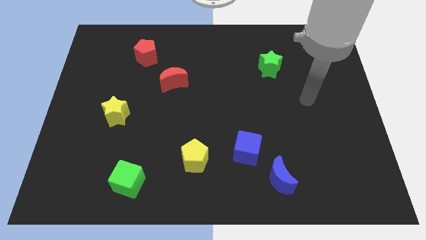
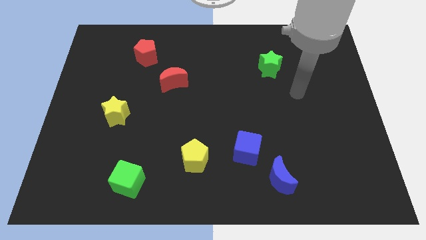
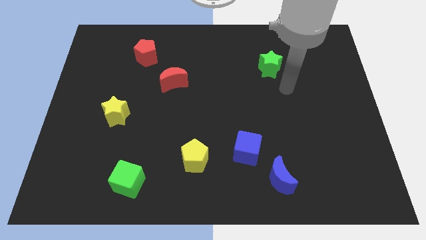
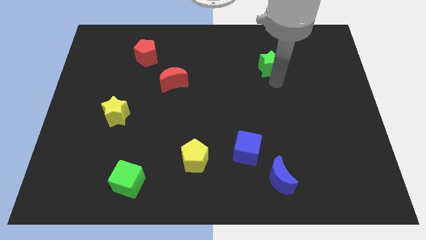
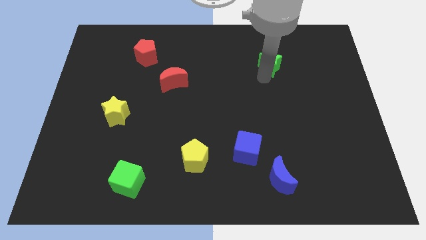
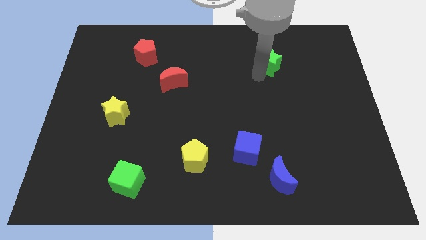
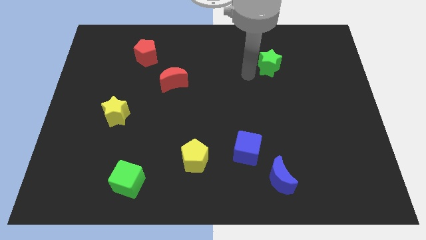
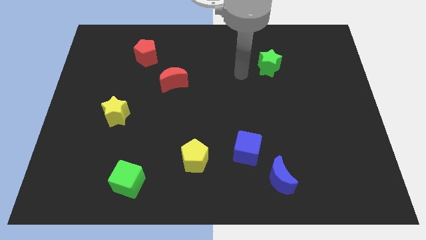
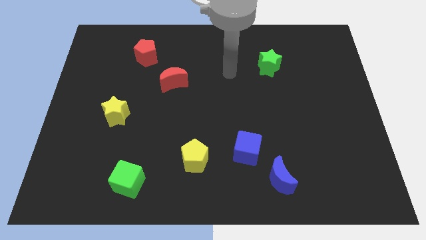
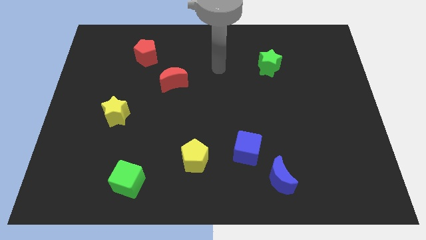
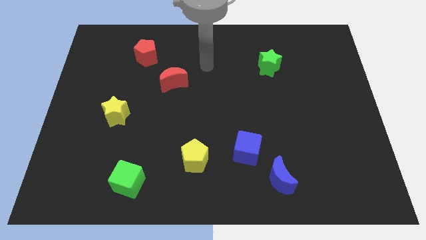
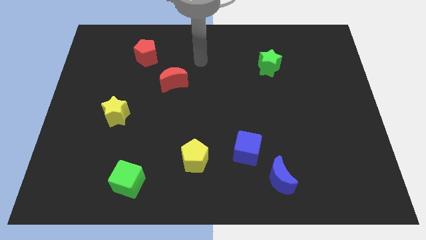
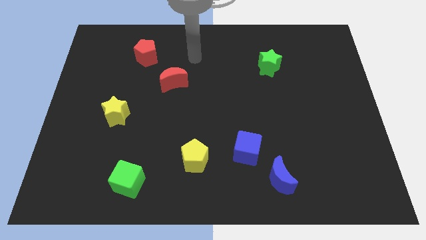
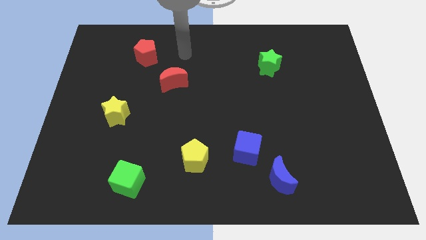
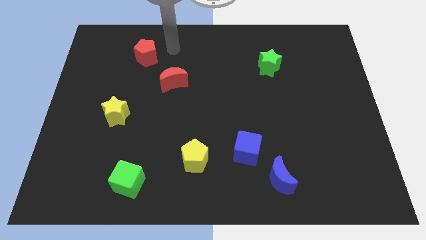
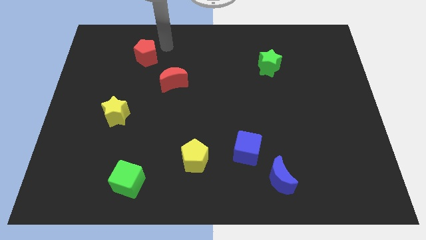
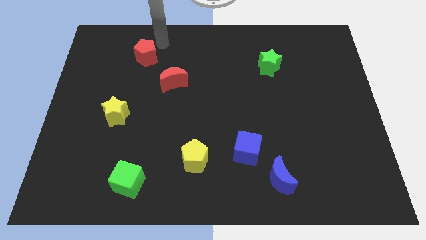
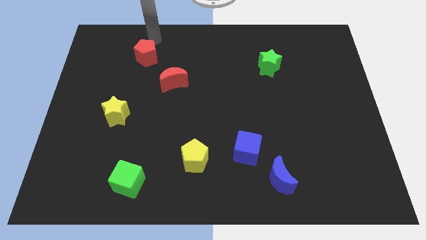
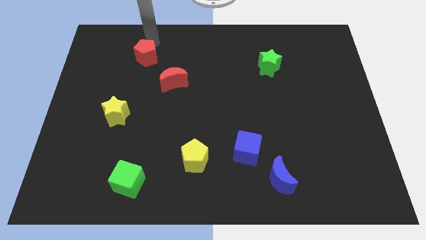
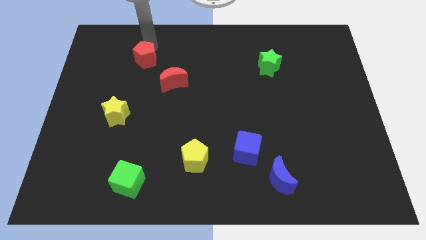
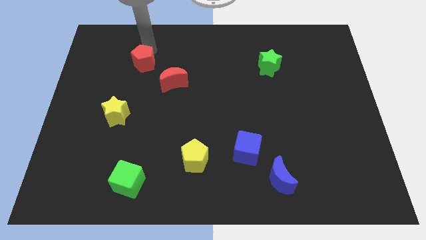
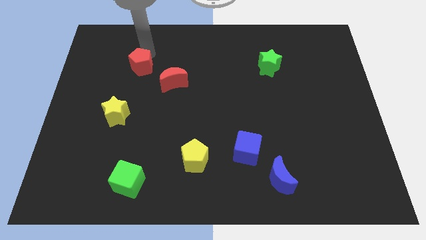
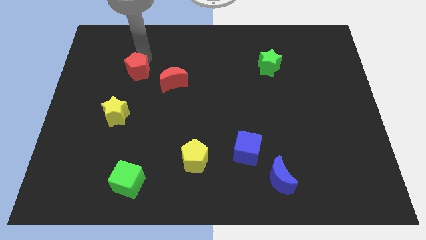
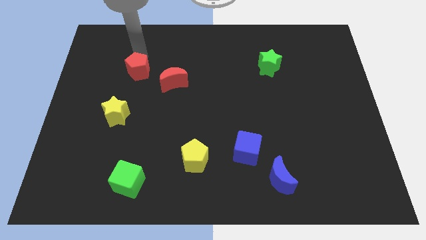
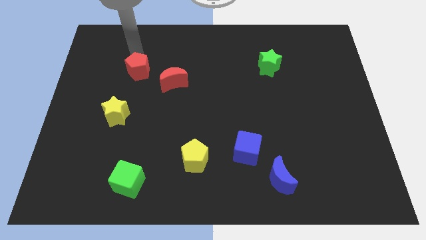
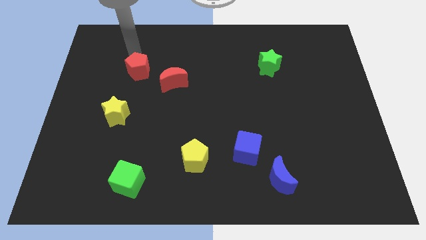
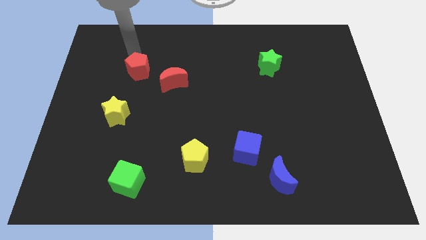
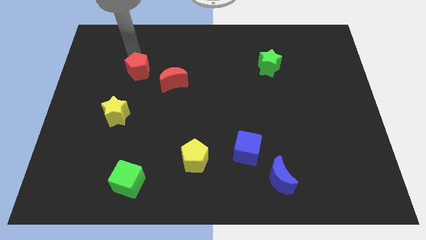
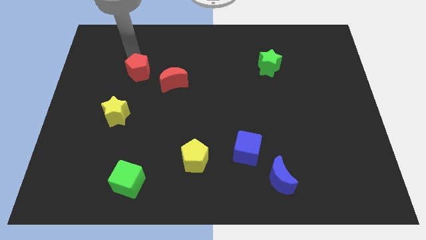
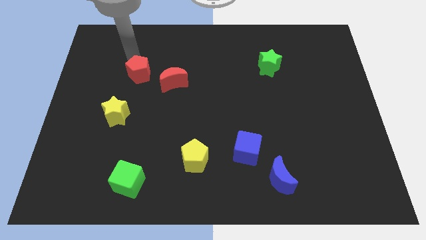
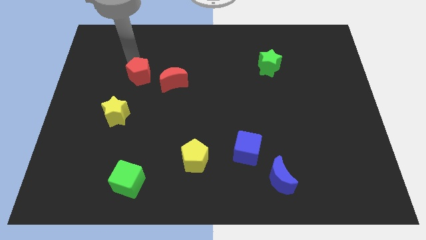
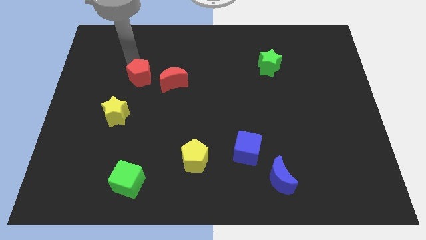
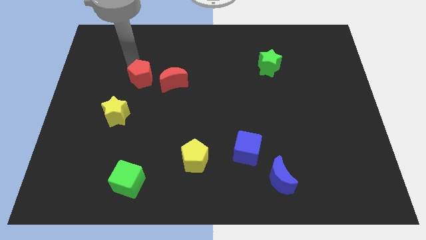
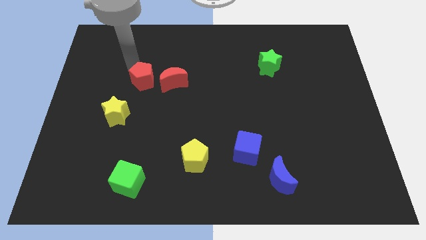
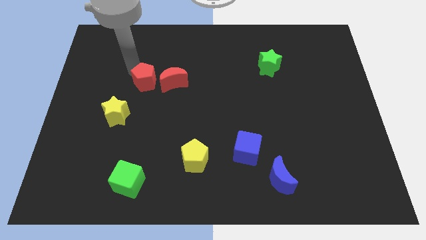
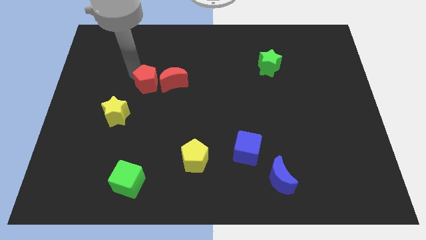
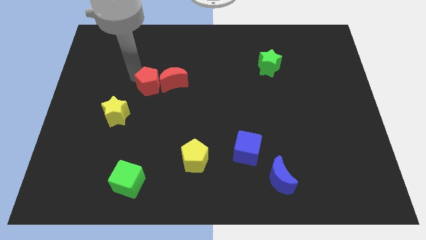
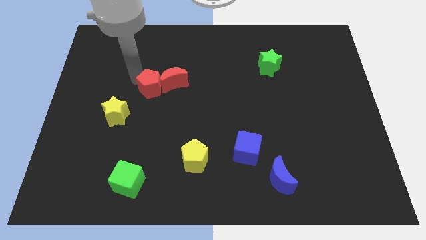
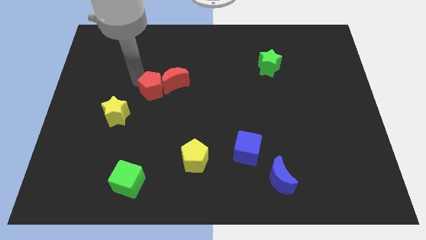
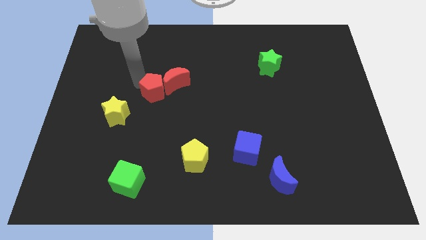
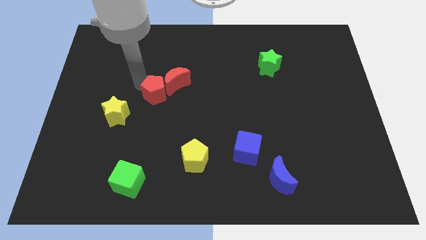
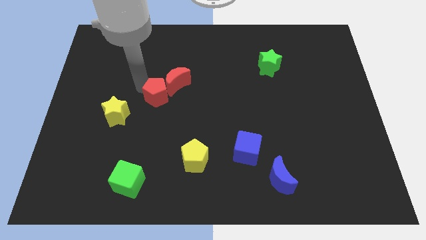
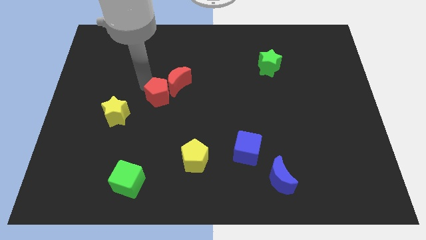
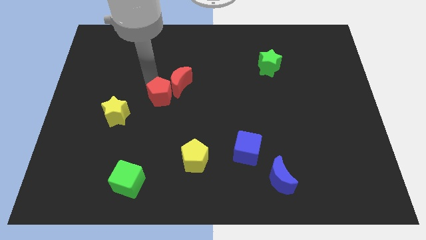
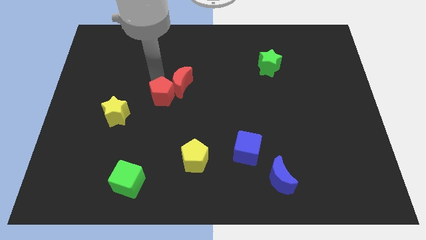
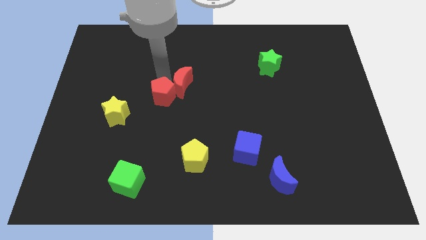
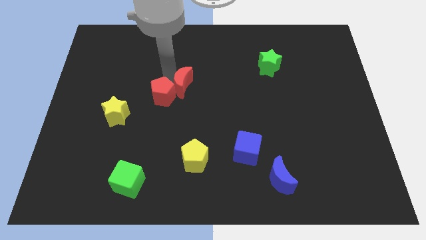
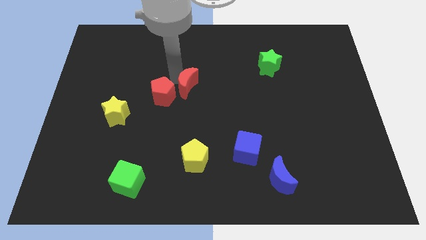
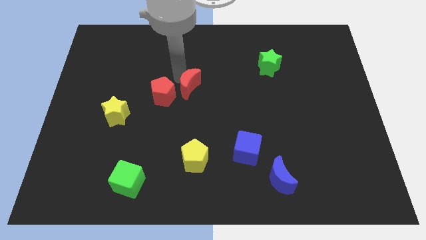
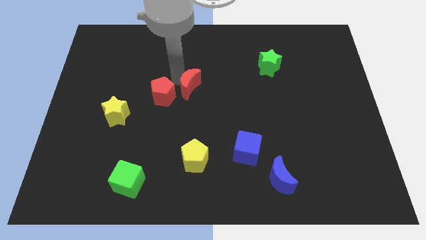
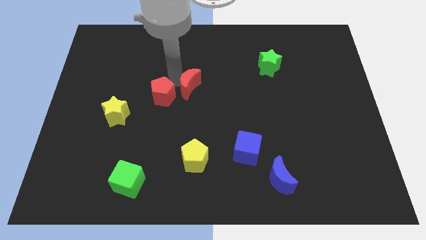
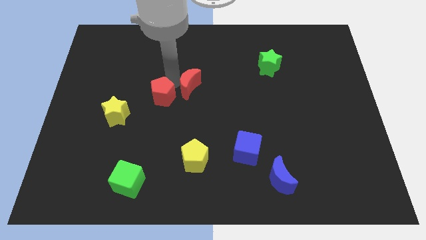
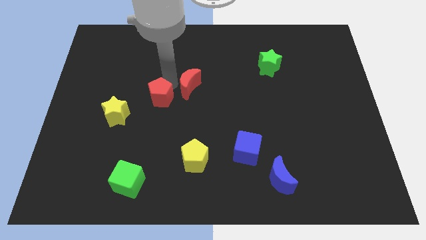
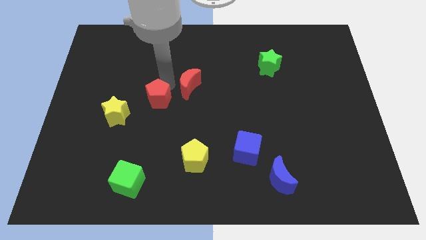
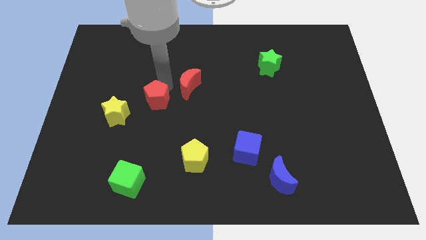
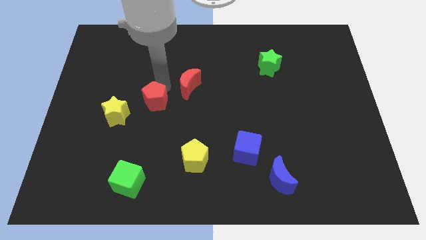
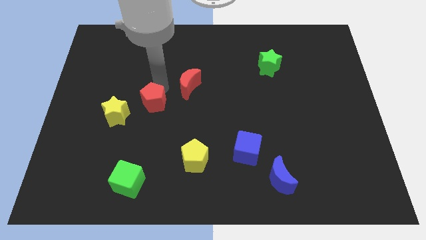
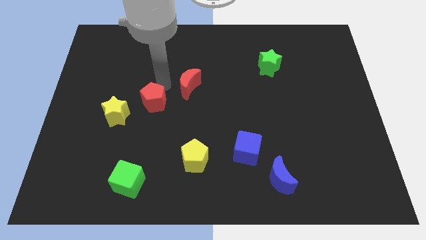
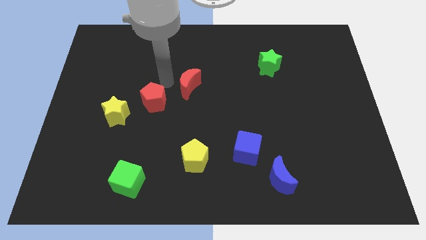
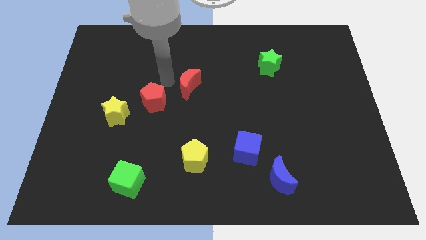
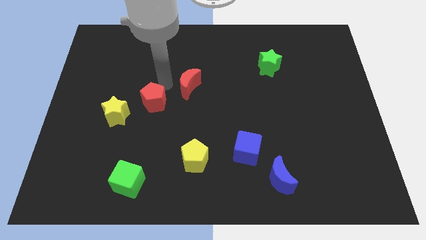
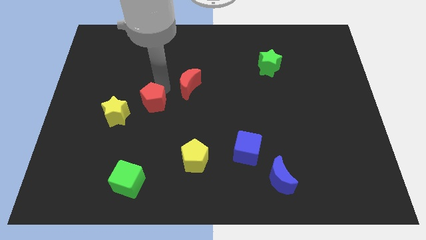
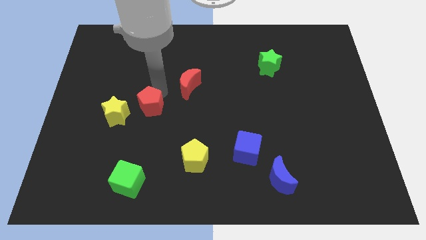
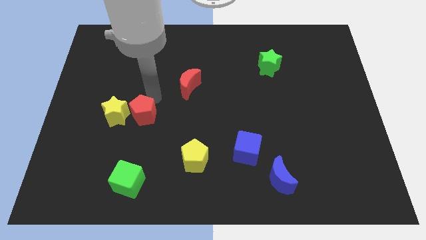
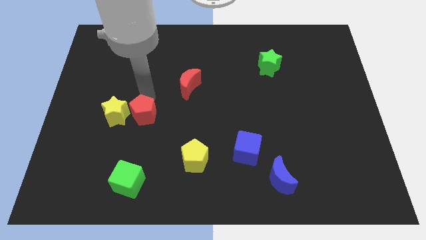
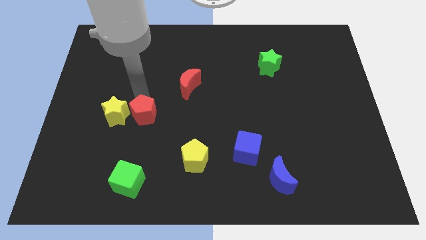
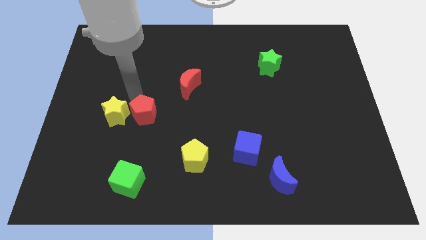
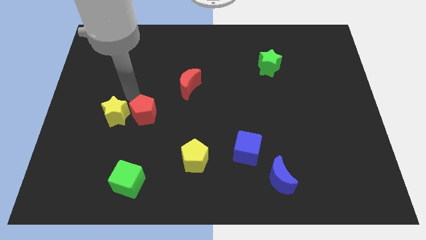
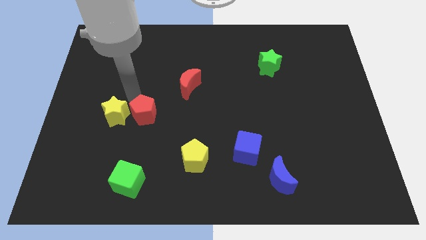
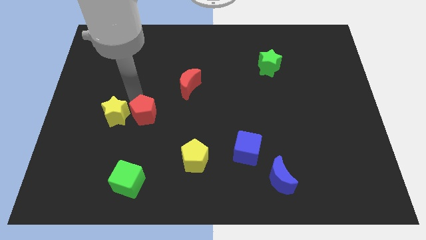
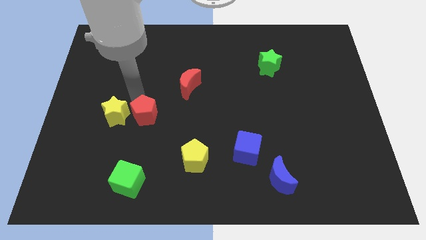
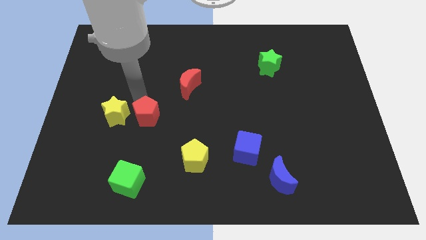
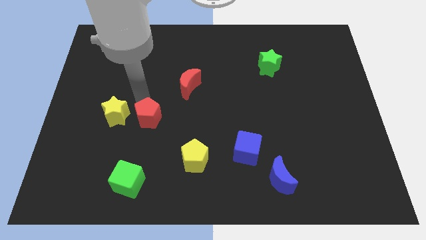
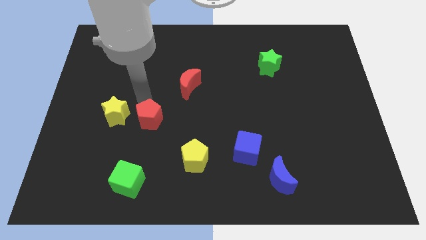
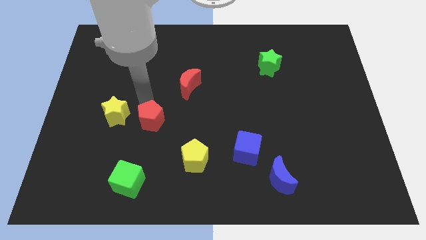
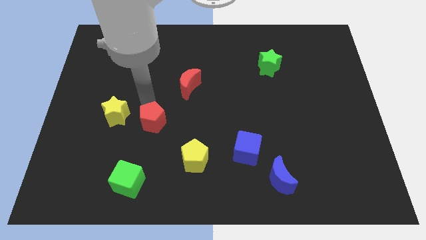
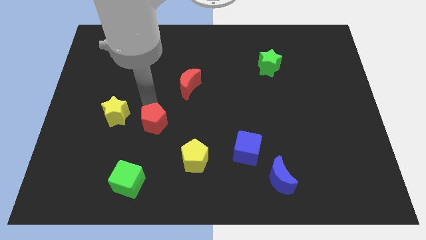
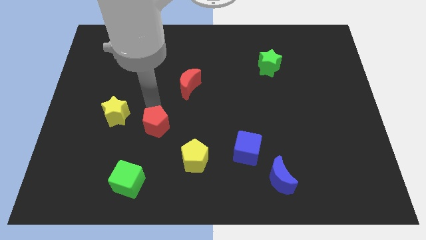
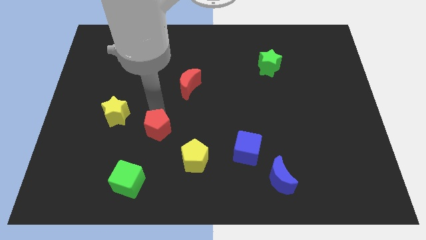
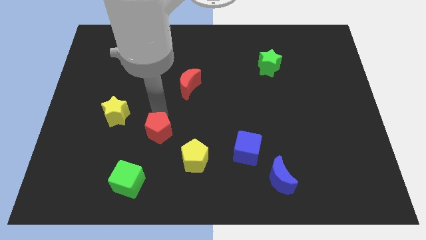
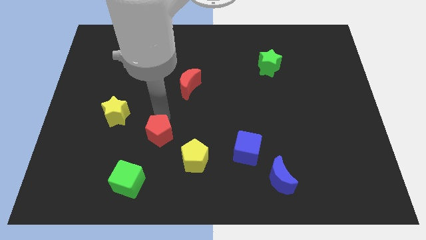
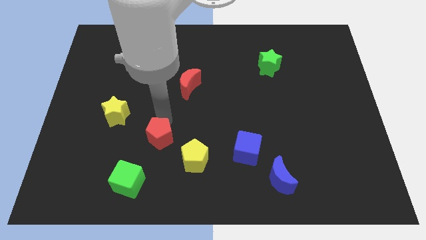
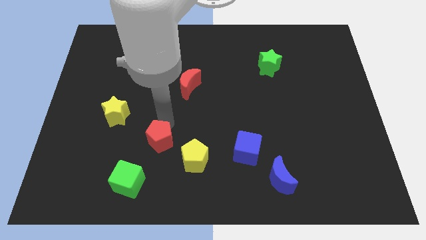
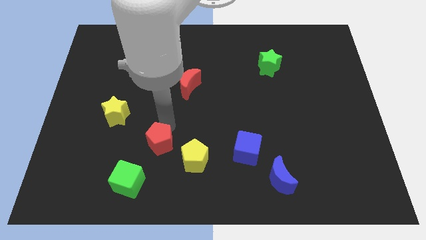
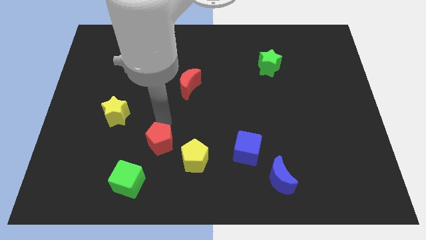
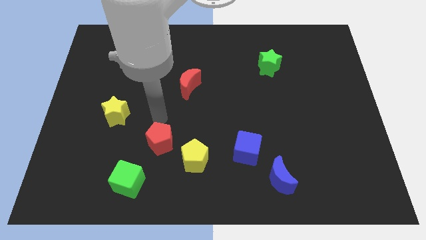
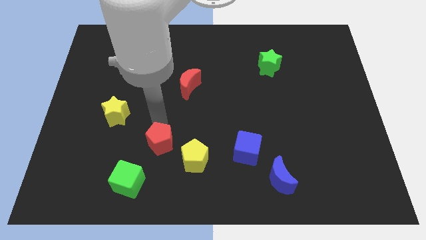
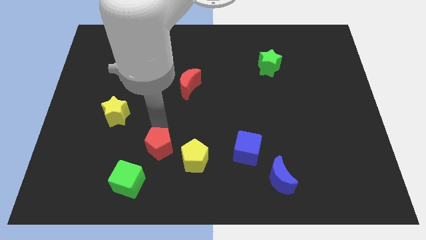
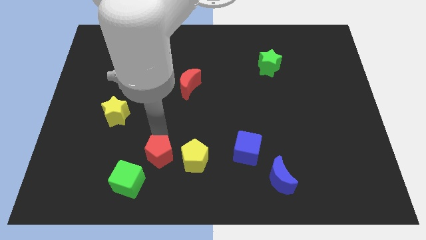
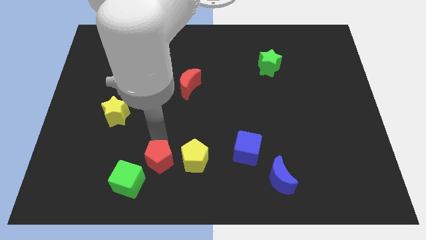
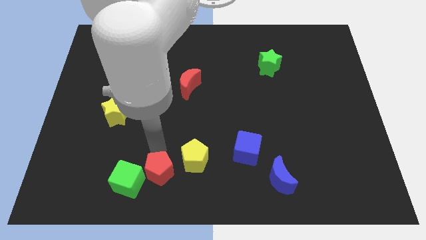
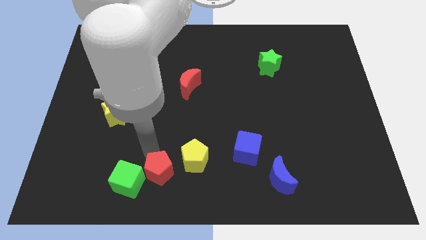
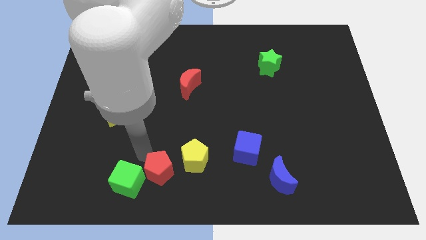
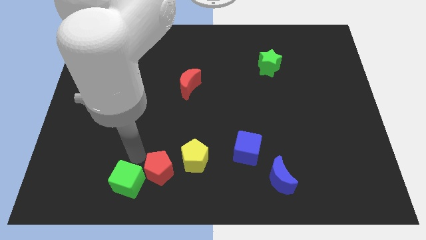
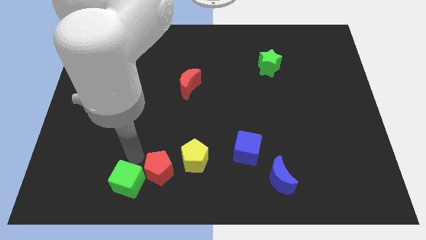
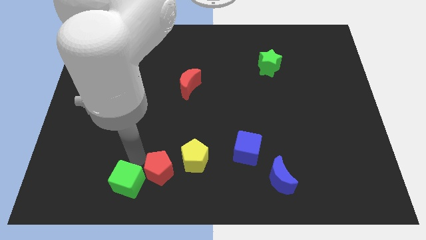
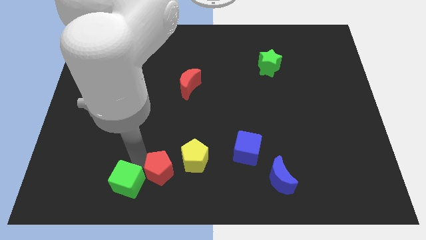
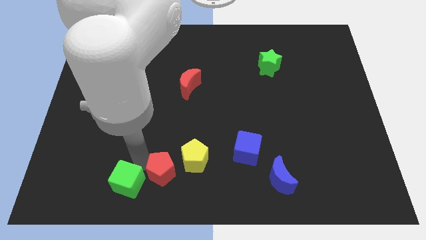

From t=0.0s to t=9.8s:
put the red pentagon to the bottom
